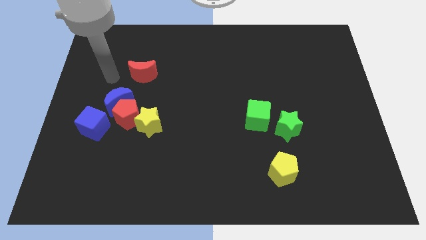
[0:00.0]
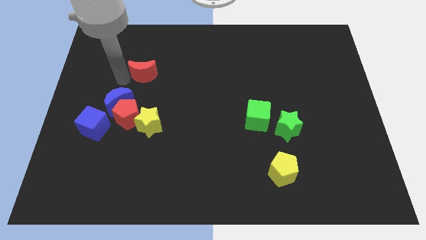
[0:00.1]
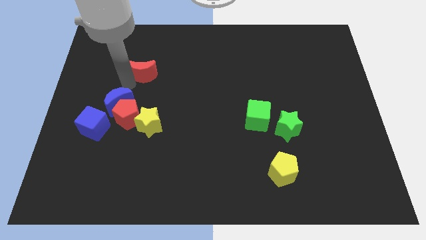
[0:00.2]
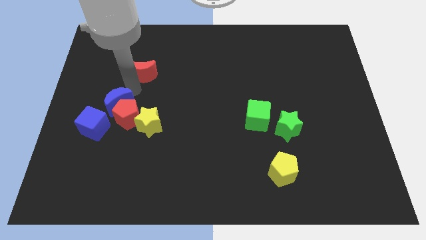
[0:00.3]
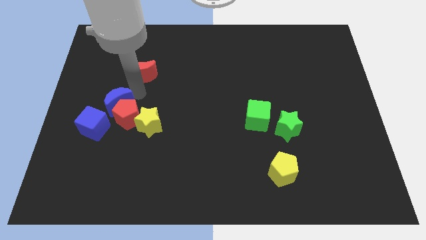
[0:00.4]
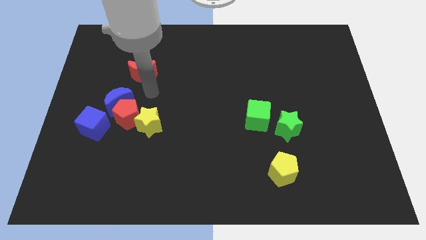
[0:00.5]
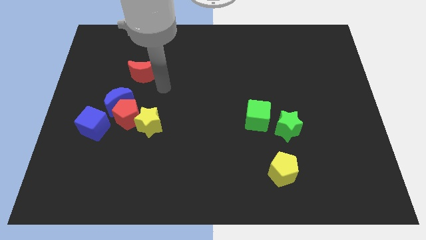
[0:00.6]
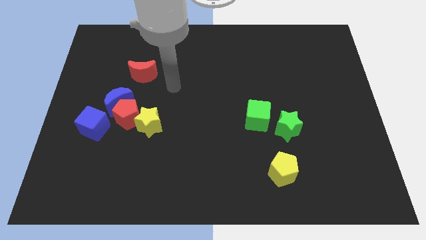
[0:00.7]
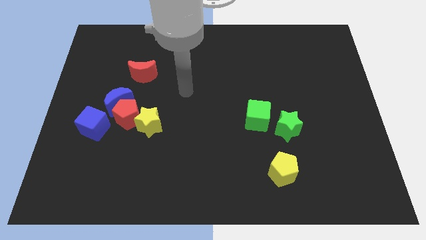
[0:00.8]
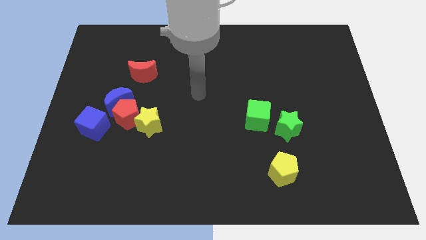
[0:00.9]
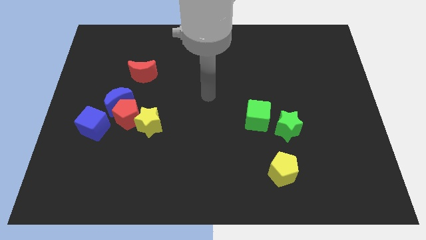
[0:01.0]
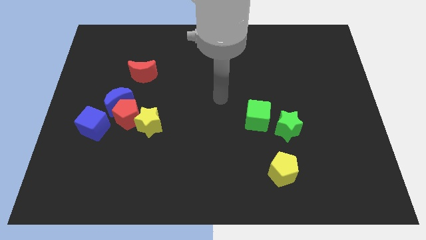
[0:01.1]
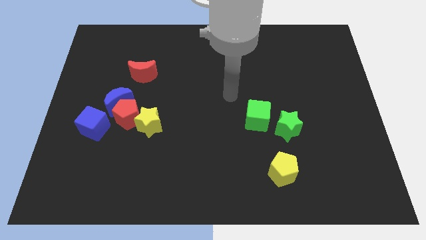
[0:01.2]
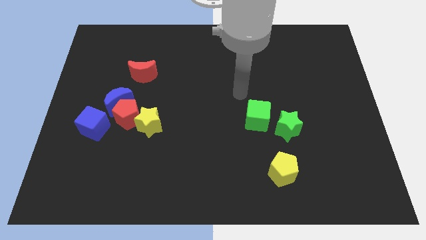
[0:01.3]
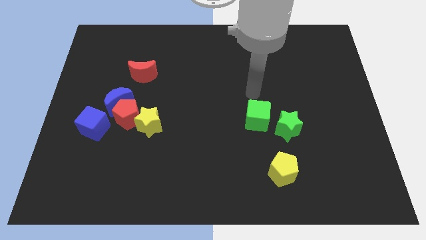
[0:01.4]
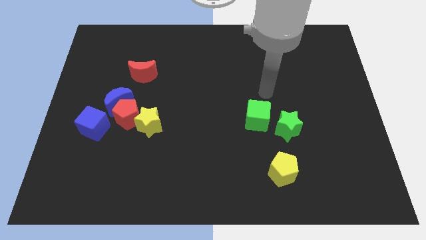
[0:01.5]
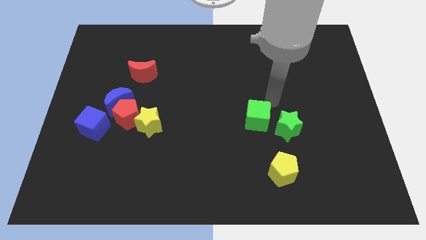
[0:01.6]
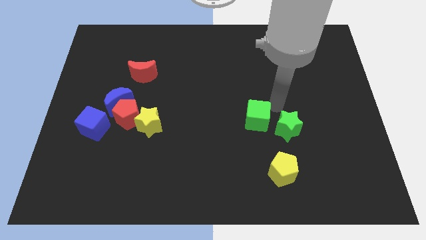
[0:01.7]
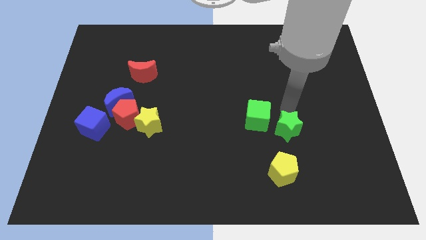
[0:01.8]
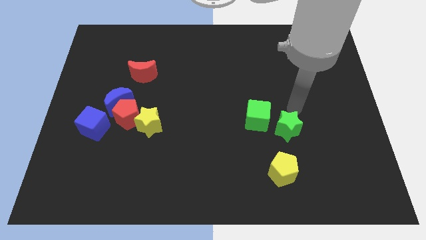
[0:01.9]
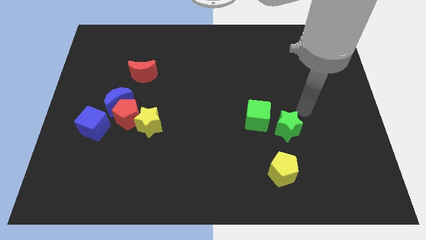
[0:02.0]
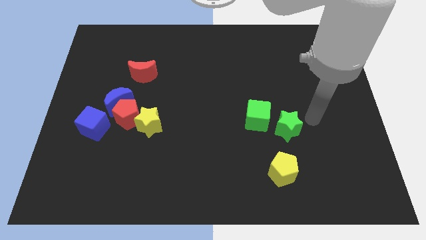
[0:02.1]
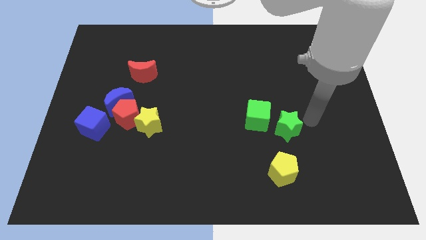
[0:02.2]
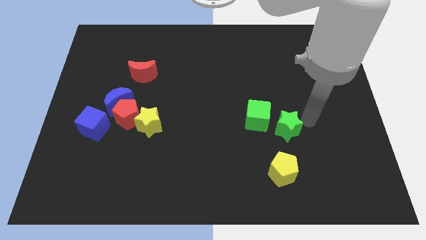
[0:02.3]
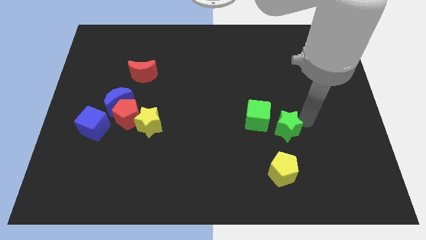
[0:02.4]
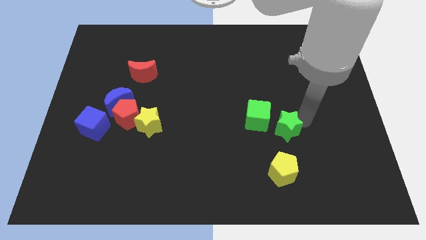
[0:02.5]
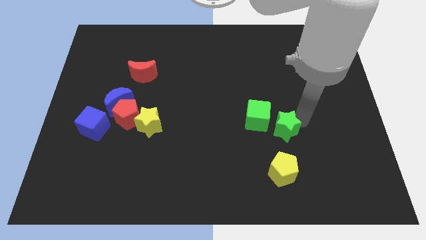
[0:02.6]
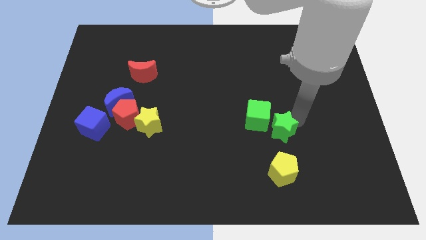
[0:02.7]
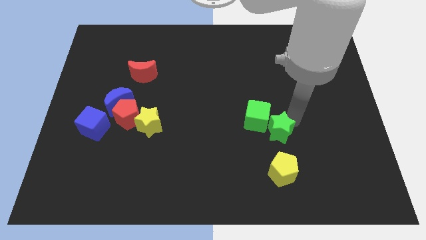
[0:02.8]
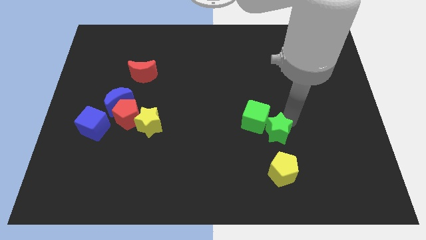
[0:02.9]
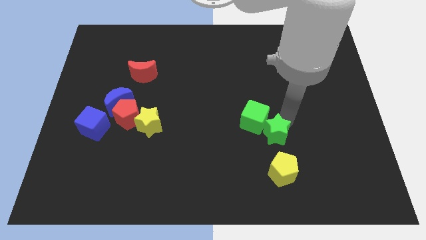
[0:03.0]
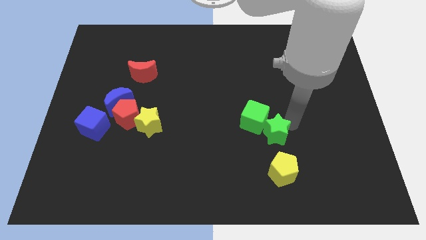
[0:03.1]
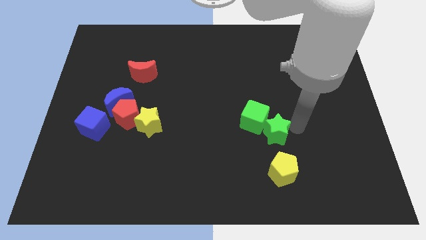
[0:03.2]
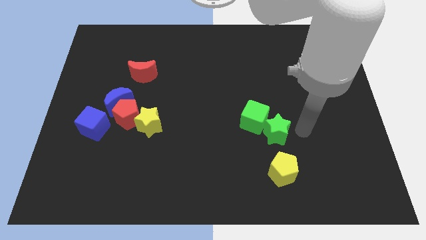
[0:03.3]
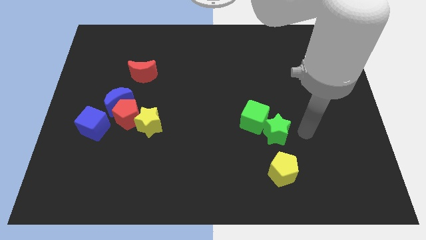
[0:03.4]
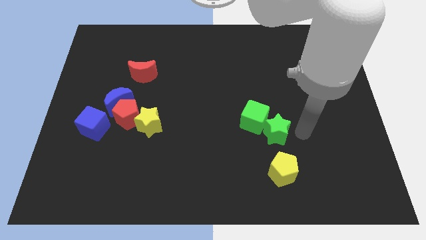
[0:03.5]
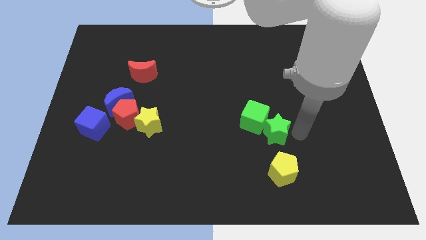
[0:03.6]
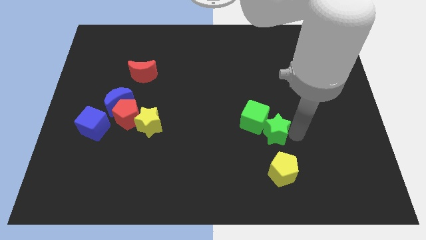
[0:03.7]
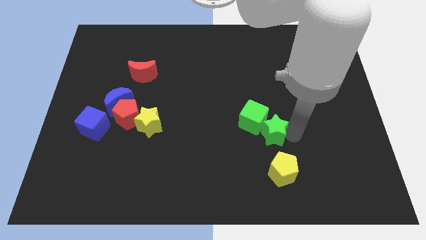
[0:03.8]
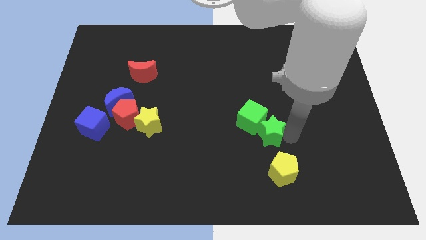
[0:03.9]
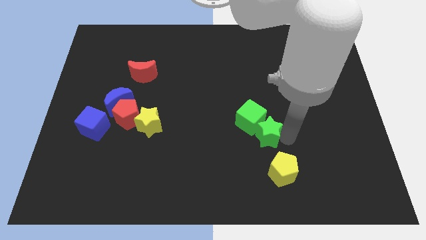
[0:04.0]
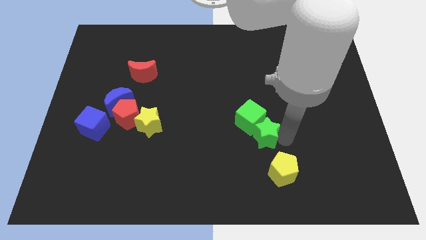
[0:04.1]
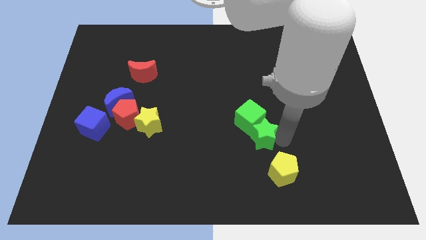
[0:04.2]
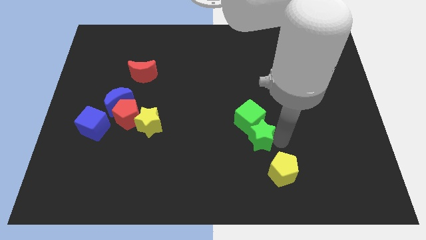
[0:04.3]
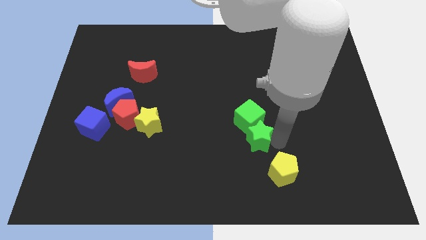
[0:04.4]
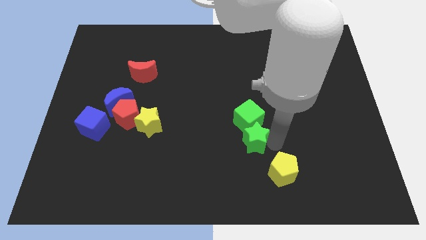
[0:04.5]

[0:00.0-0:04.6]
push the green star to the left somewhat

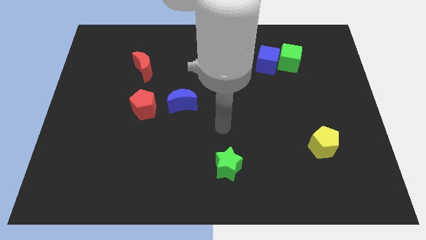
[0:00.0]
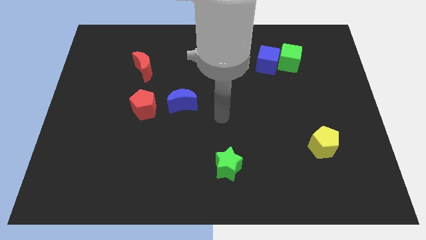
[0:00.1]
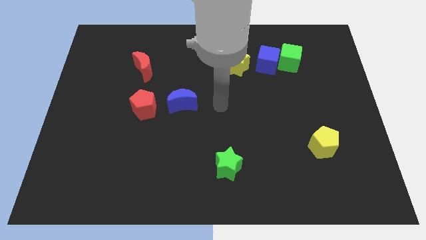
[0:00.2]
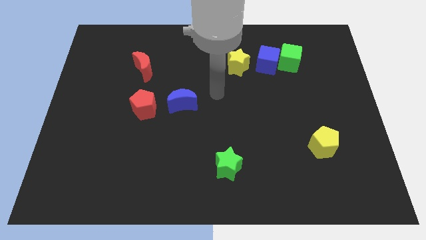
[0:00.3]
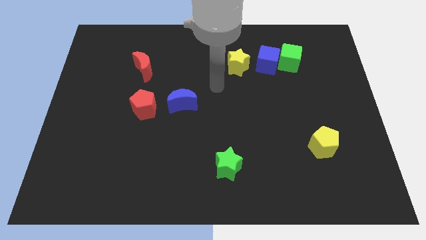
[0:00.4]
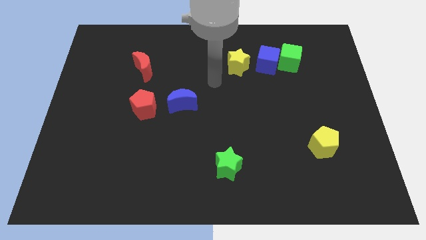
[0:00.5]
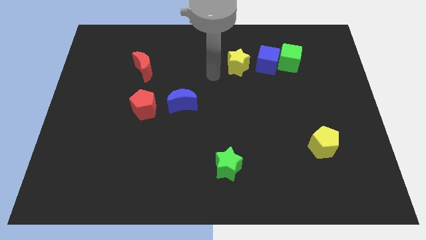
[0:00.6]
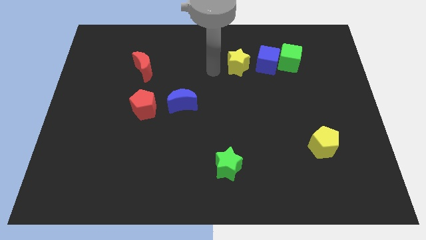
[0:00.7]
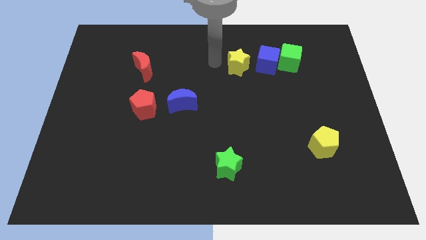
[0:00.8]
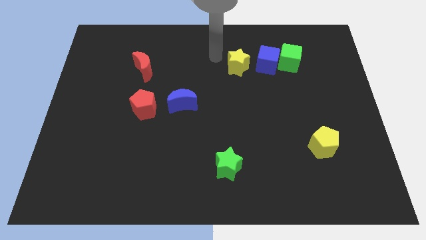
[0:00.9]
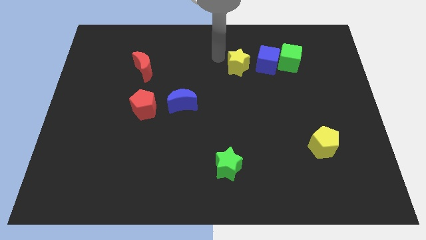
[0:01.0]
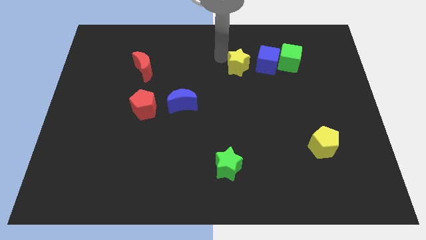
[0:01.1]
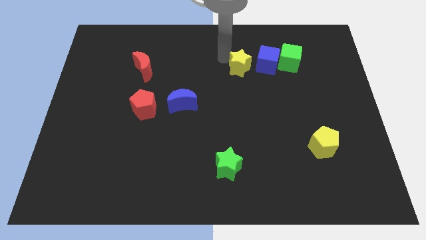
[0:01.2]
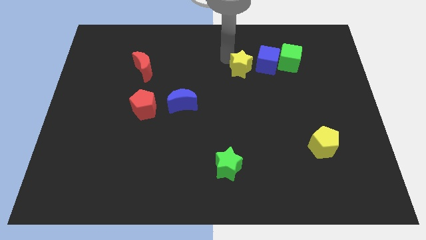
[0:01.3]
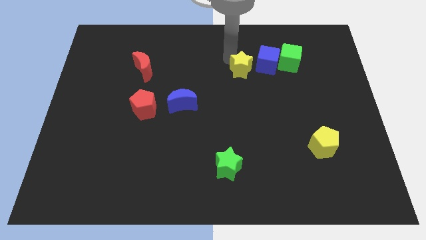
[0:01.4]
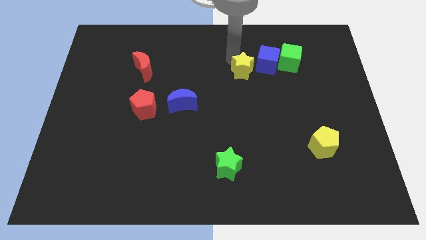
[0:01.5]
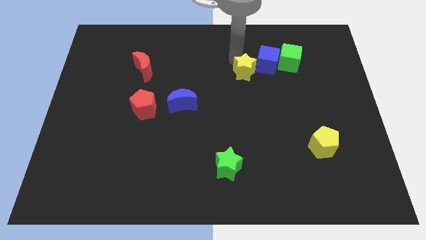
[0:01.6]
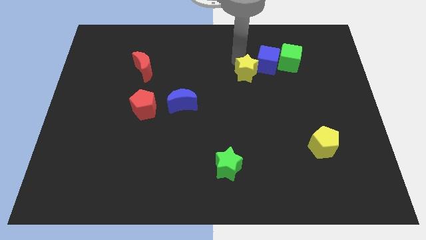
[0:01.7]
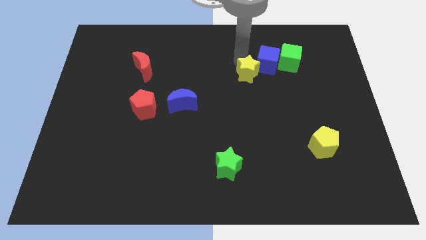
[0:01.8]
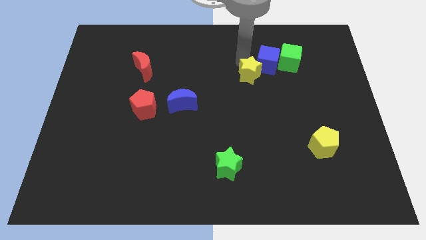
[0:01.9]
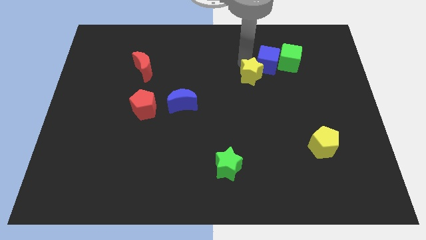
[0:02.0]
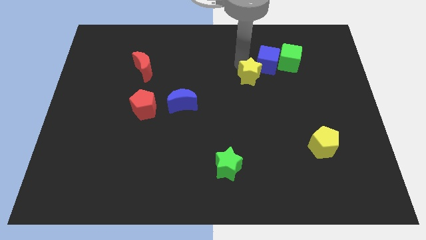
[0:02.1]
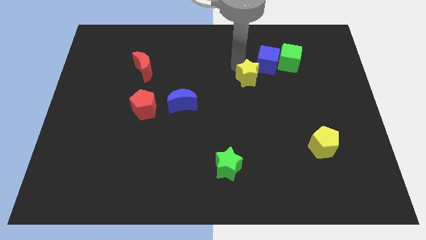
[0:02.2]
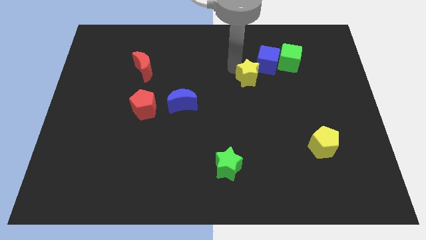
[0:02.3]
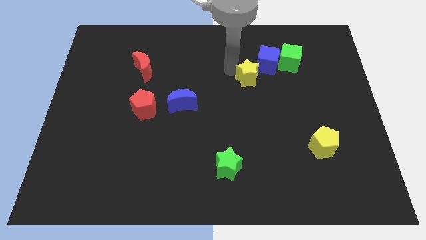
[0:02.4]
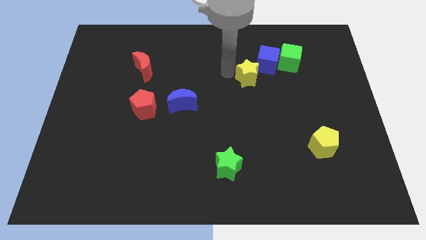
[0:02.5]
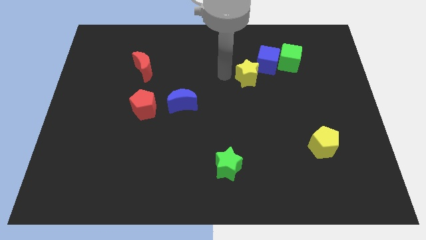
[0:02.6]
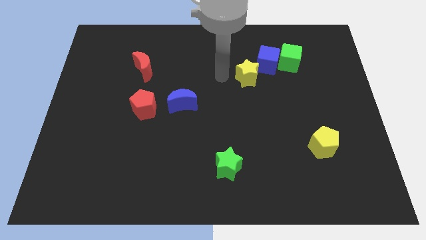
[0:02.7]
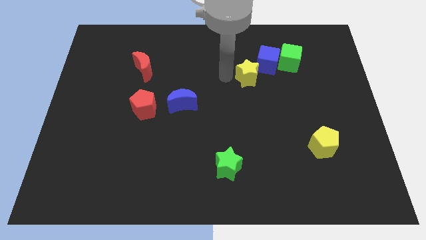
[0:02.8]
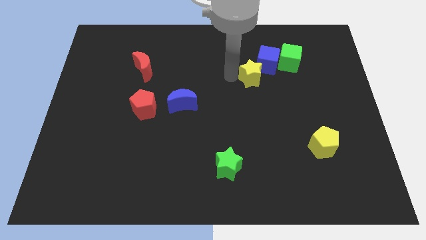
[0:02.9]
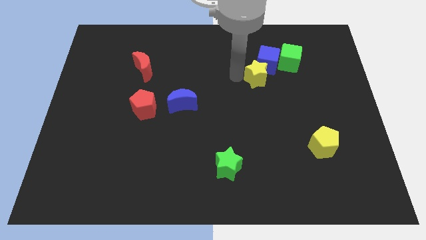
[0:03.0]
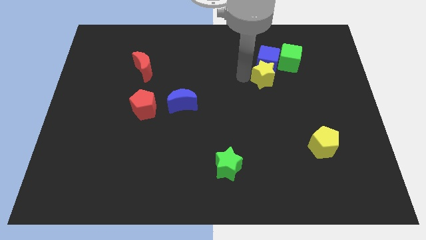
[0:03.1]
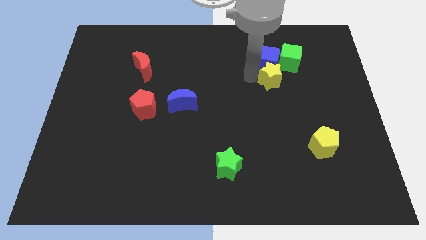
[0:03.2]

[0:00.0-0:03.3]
move the yellow star a little right
